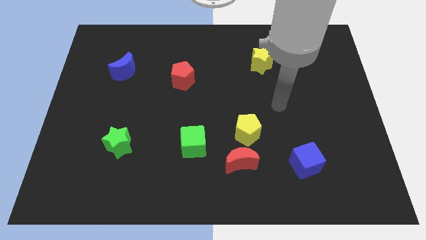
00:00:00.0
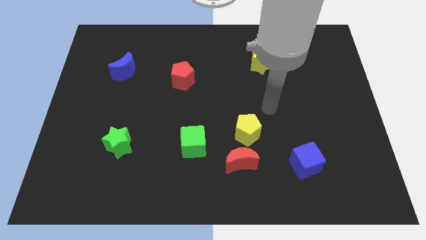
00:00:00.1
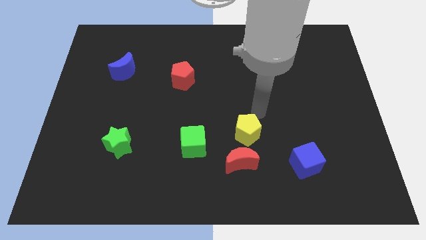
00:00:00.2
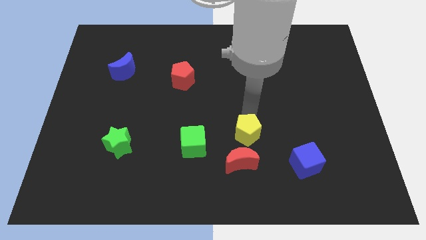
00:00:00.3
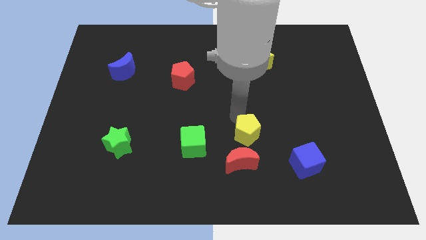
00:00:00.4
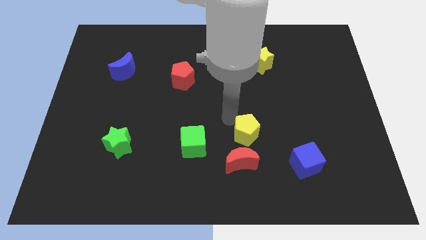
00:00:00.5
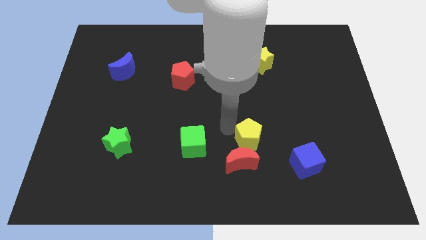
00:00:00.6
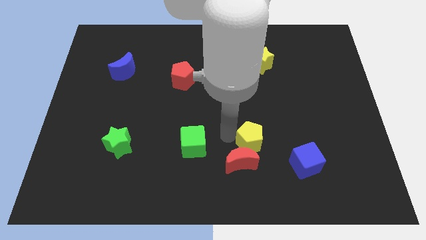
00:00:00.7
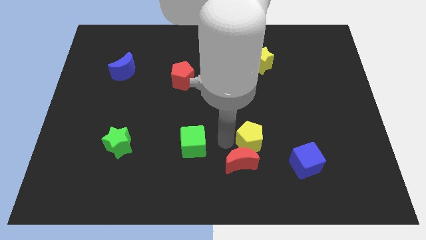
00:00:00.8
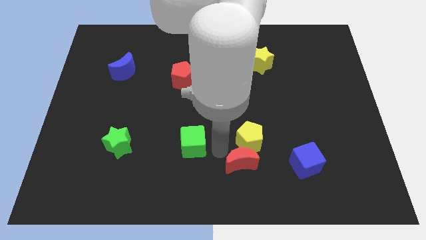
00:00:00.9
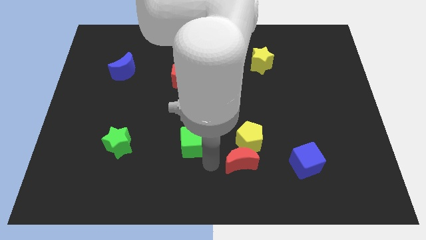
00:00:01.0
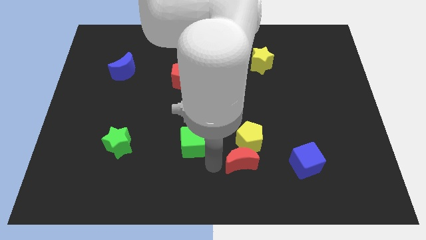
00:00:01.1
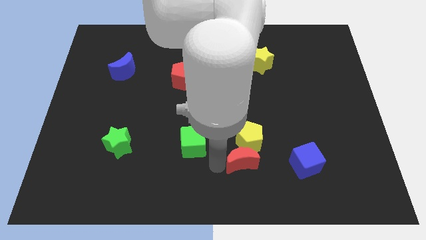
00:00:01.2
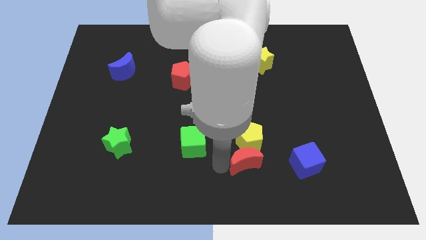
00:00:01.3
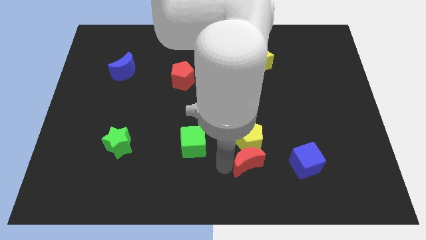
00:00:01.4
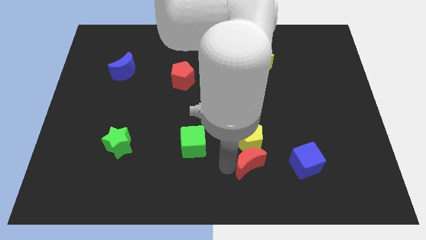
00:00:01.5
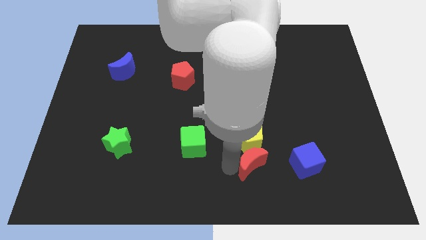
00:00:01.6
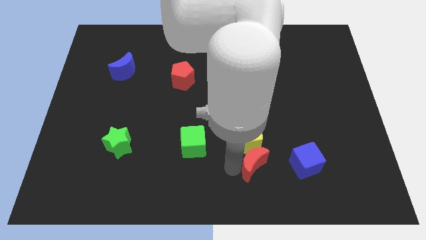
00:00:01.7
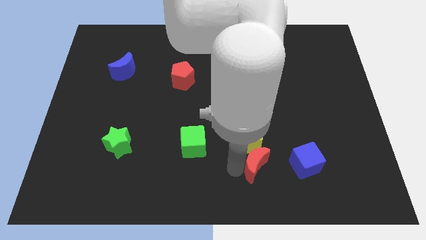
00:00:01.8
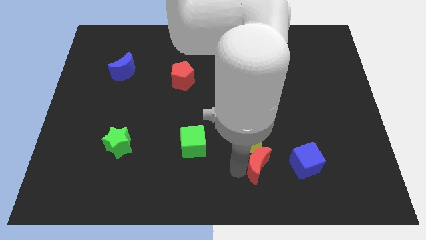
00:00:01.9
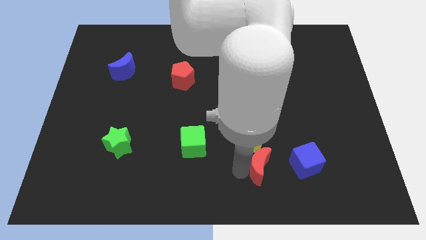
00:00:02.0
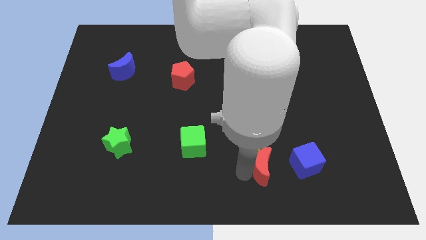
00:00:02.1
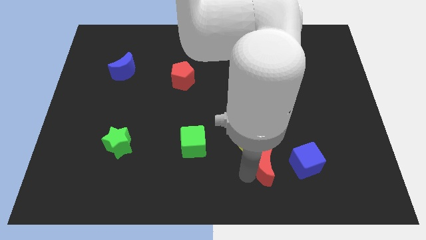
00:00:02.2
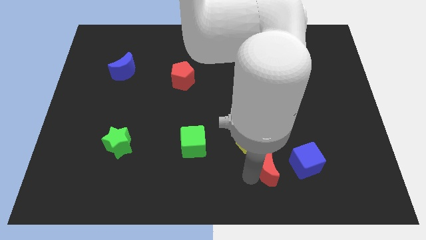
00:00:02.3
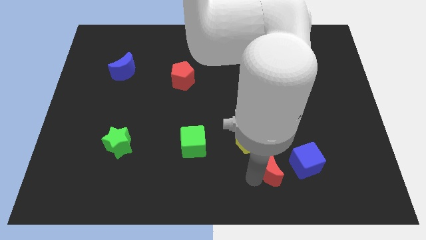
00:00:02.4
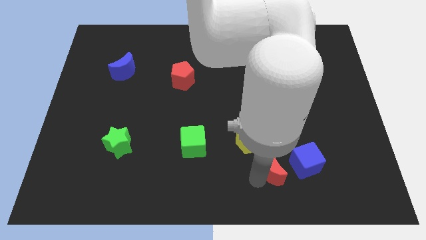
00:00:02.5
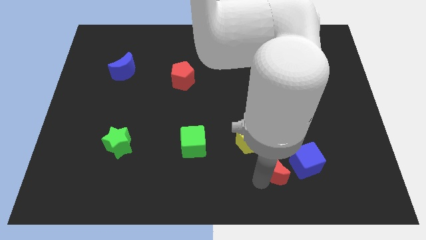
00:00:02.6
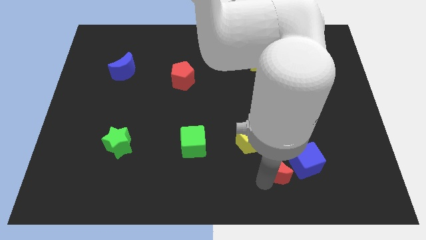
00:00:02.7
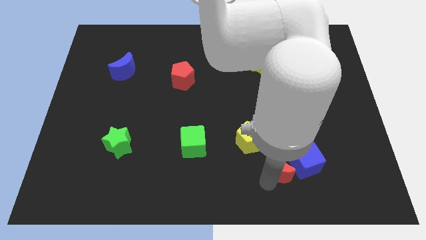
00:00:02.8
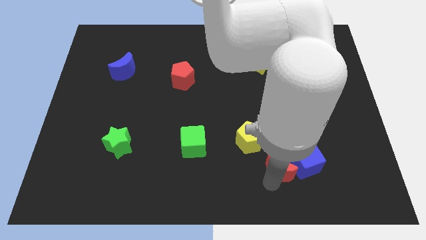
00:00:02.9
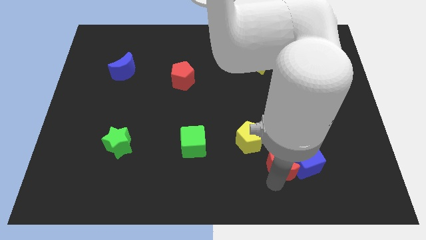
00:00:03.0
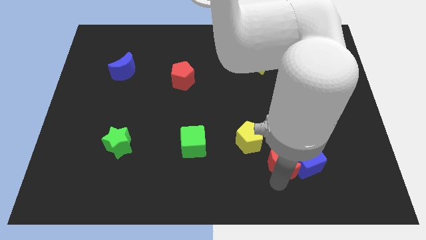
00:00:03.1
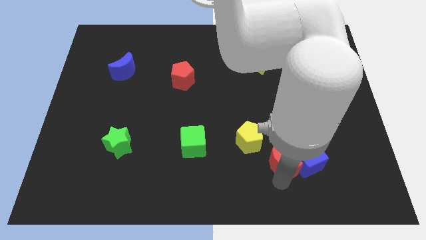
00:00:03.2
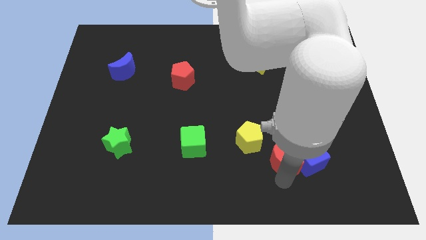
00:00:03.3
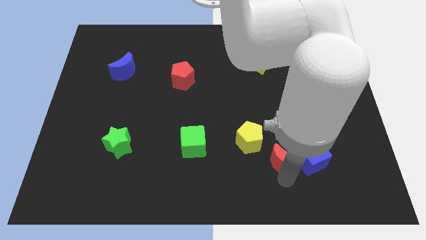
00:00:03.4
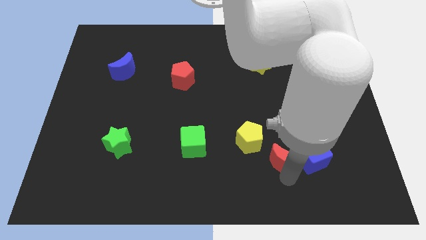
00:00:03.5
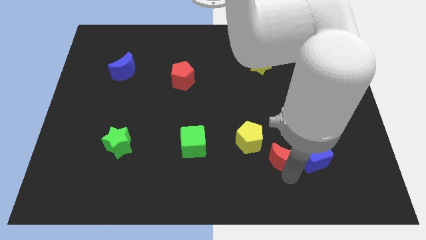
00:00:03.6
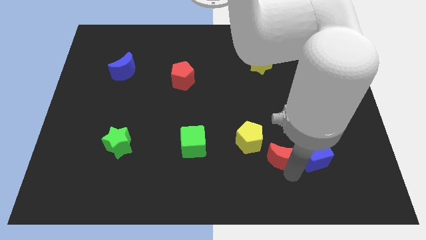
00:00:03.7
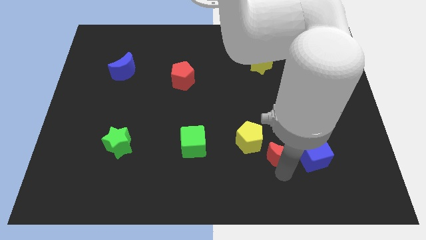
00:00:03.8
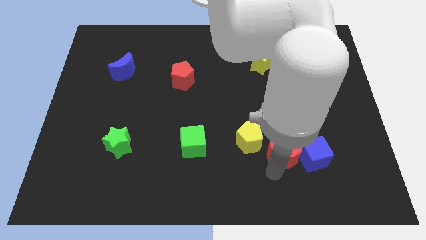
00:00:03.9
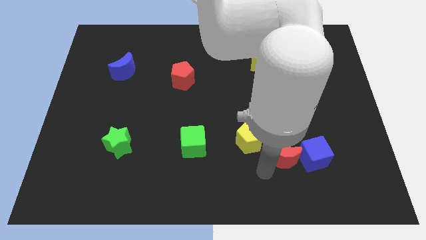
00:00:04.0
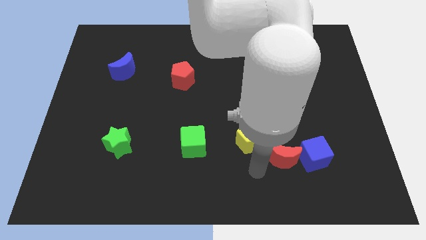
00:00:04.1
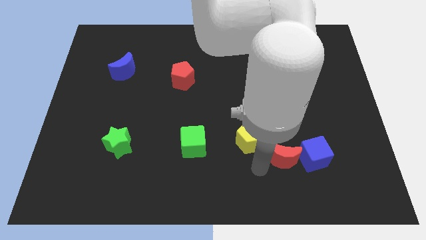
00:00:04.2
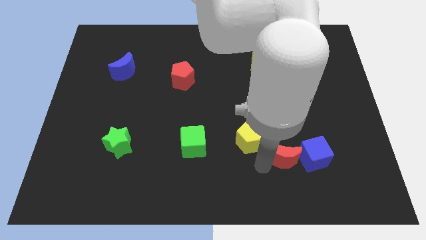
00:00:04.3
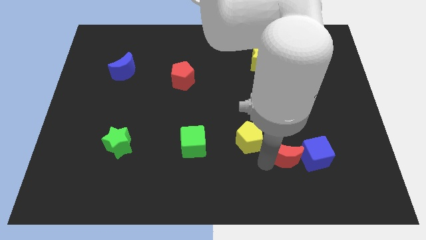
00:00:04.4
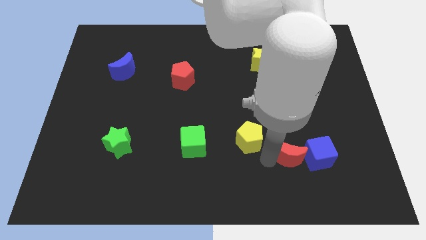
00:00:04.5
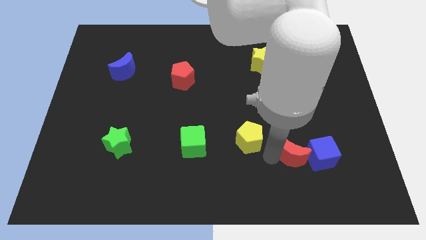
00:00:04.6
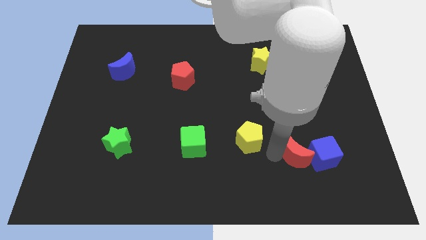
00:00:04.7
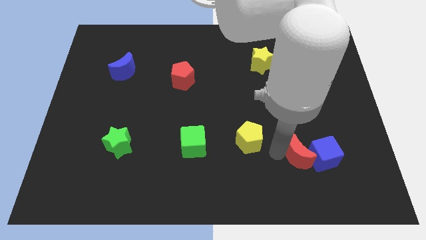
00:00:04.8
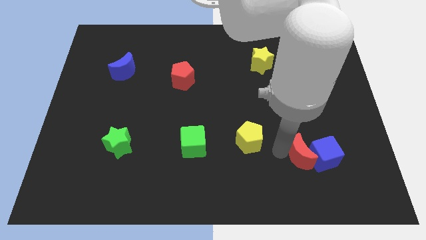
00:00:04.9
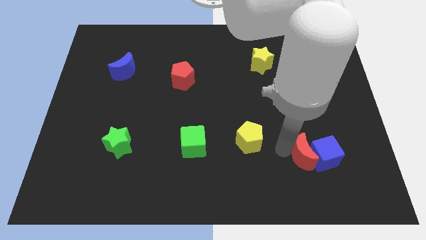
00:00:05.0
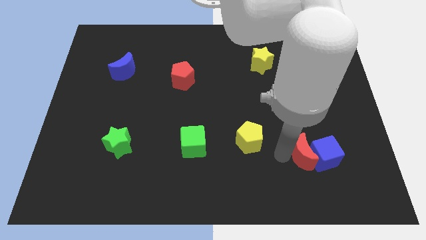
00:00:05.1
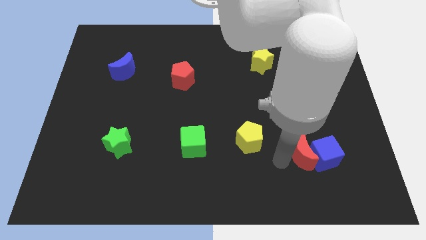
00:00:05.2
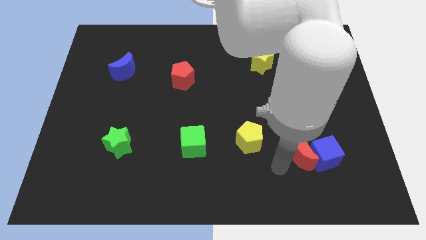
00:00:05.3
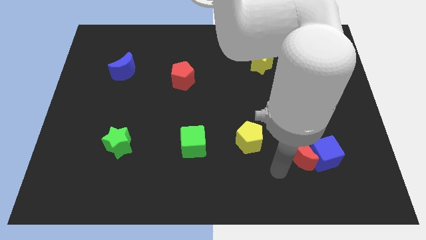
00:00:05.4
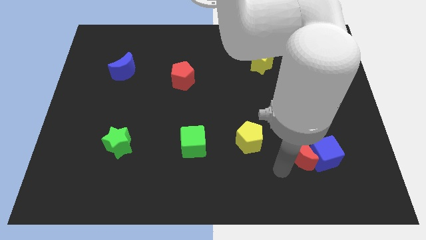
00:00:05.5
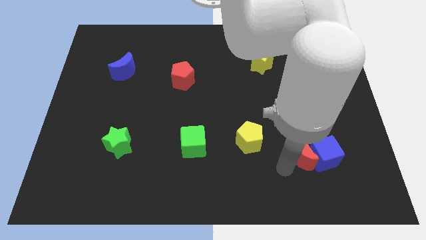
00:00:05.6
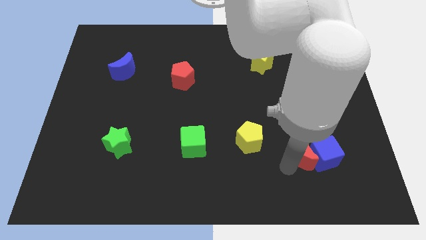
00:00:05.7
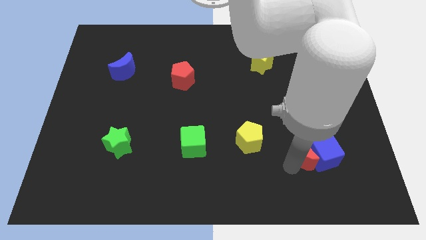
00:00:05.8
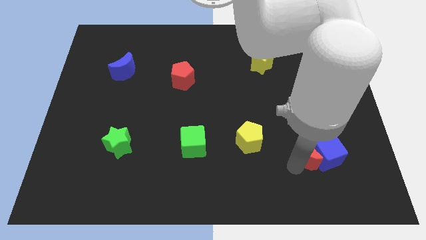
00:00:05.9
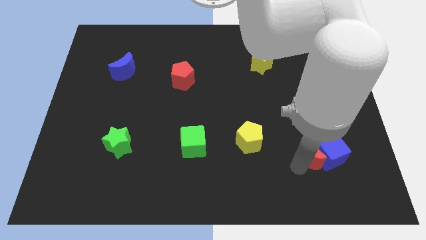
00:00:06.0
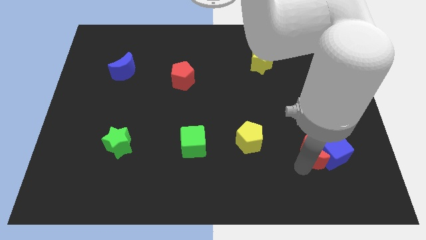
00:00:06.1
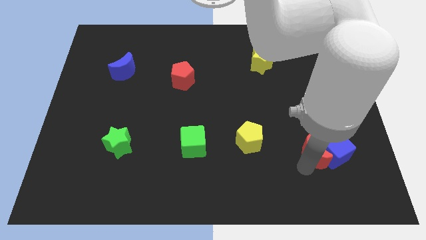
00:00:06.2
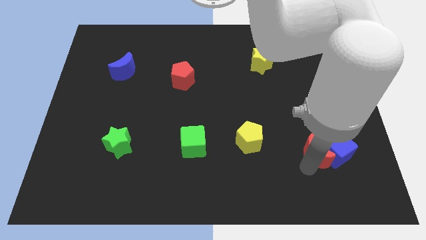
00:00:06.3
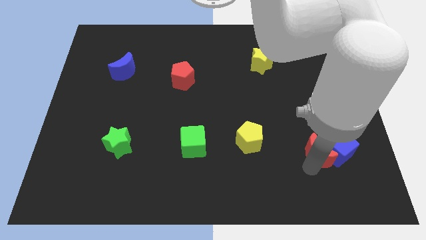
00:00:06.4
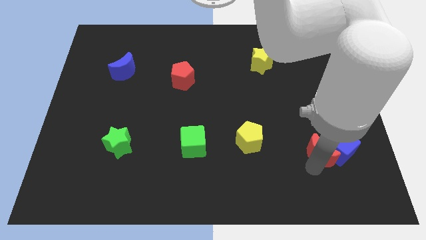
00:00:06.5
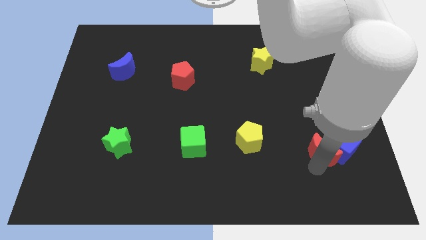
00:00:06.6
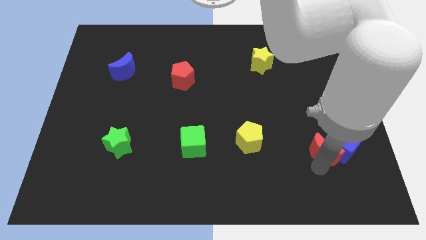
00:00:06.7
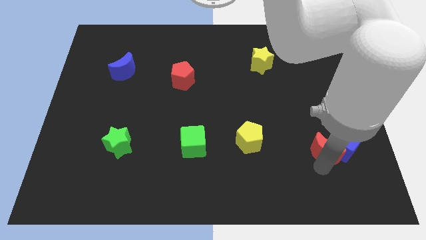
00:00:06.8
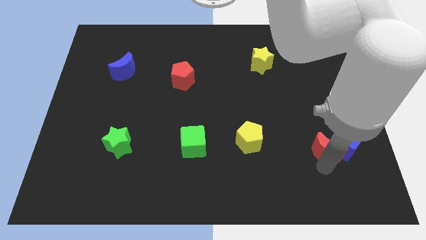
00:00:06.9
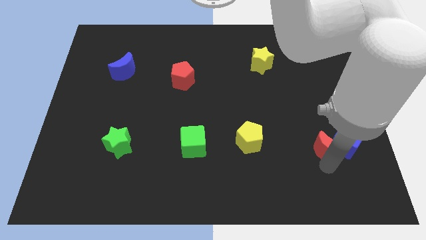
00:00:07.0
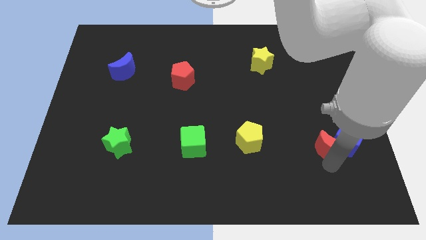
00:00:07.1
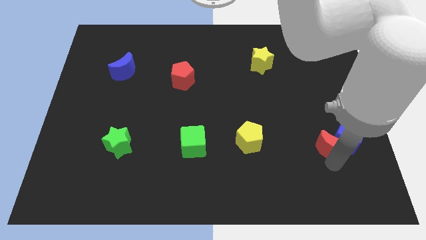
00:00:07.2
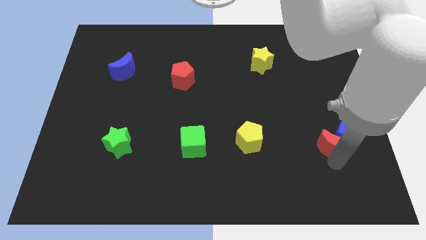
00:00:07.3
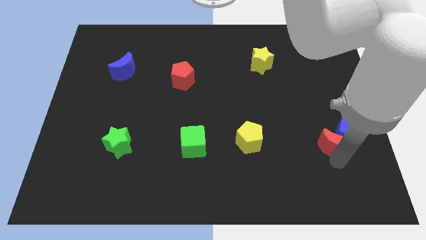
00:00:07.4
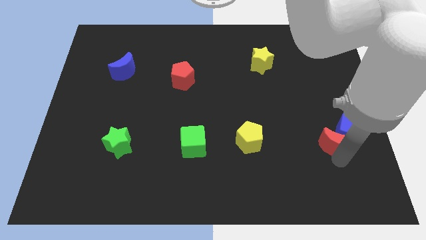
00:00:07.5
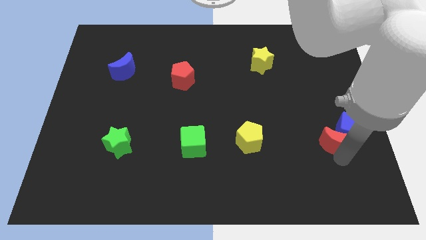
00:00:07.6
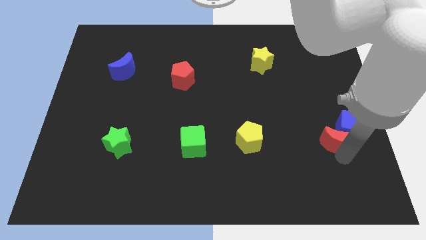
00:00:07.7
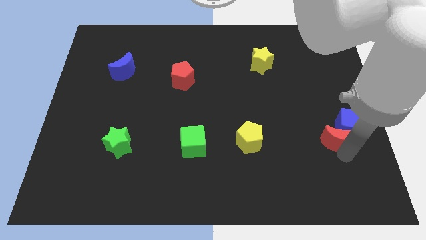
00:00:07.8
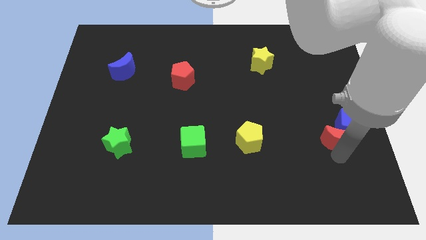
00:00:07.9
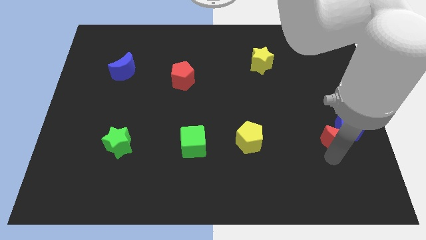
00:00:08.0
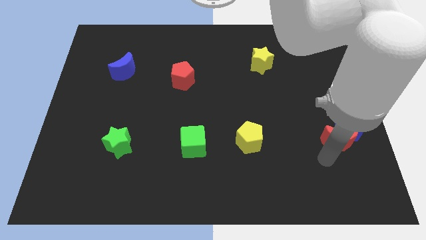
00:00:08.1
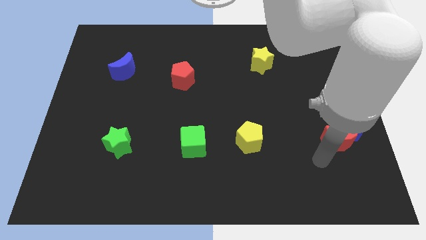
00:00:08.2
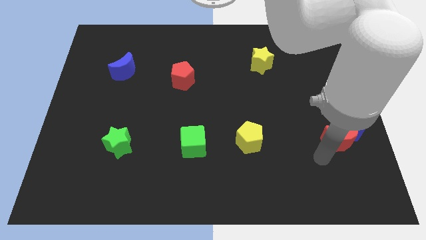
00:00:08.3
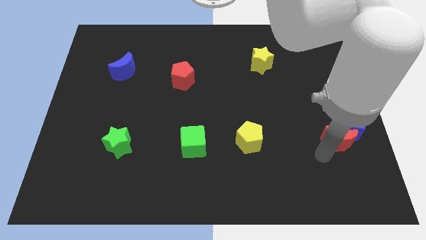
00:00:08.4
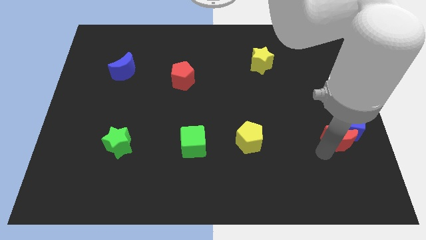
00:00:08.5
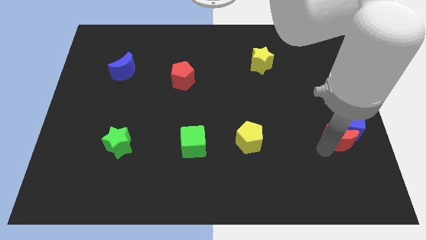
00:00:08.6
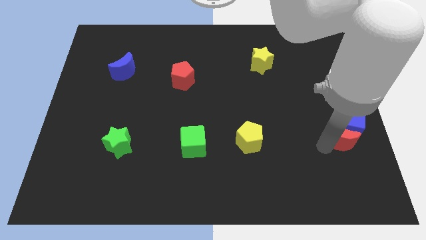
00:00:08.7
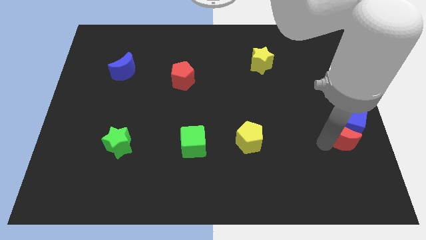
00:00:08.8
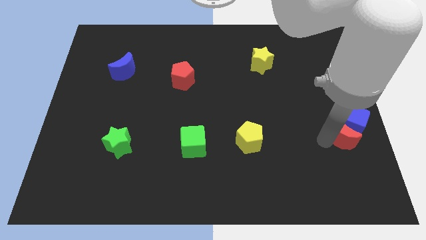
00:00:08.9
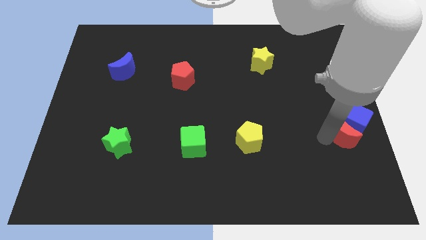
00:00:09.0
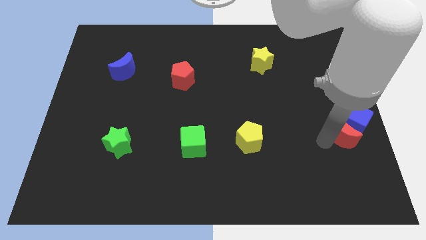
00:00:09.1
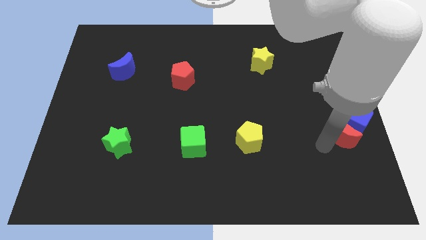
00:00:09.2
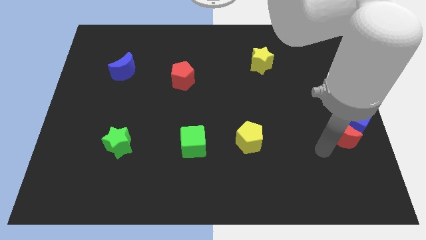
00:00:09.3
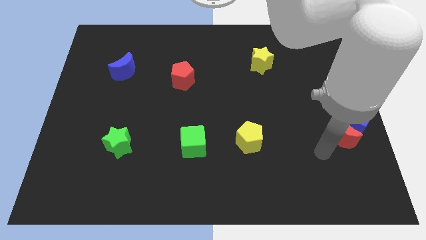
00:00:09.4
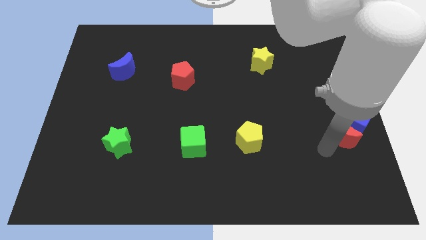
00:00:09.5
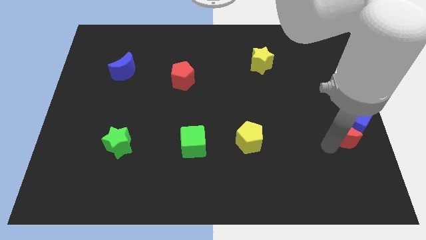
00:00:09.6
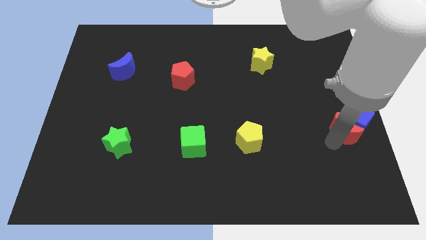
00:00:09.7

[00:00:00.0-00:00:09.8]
put the red moon to the center right
